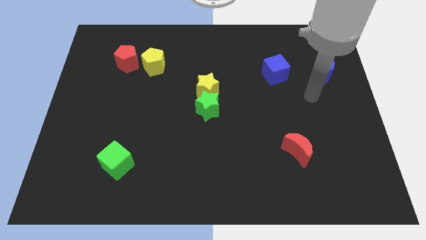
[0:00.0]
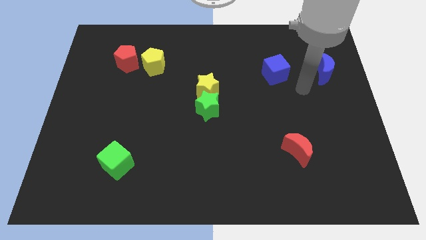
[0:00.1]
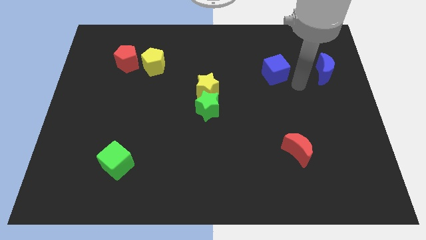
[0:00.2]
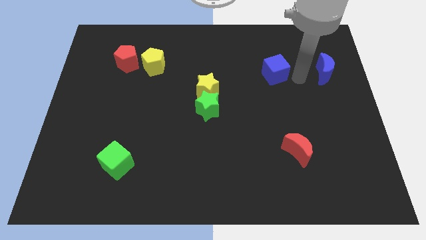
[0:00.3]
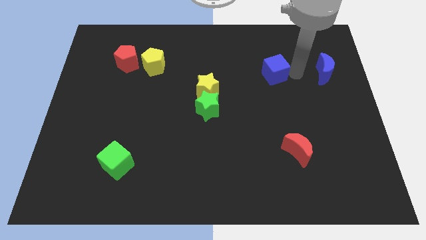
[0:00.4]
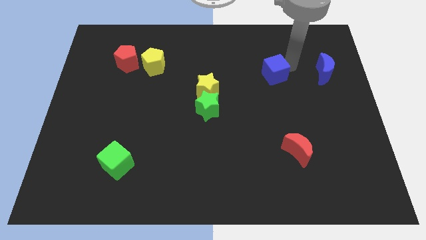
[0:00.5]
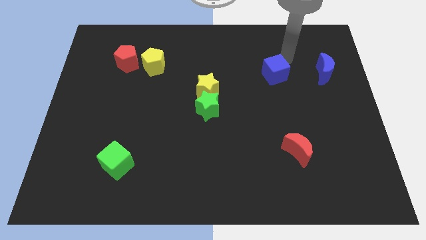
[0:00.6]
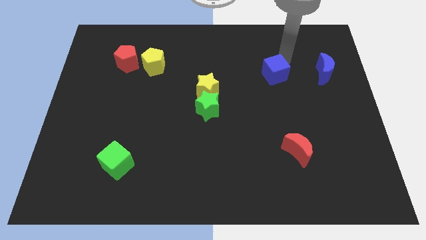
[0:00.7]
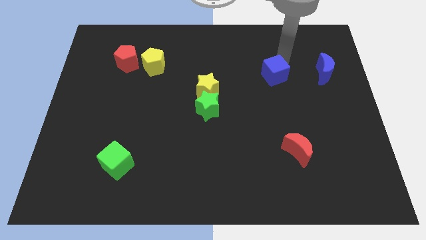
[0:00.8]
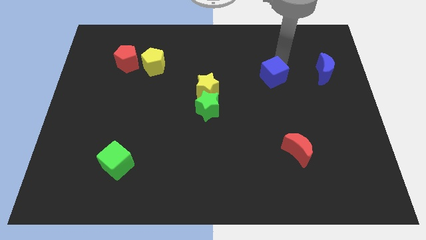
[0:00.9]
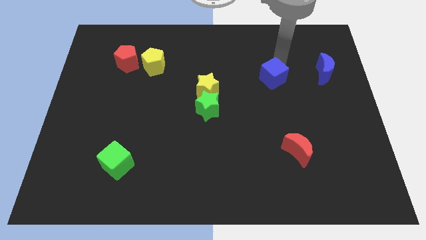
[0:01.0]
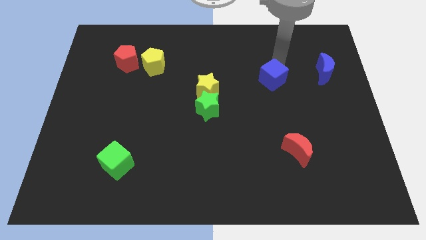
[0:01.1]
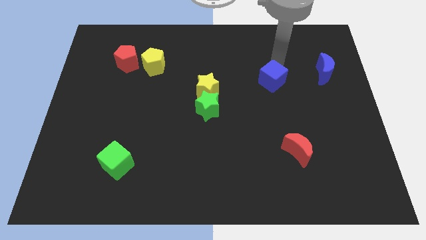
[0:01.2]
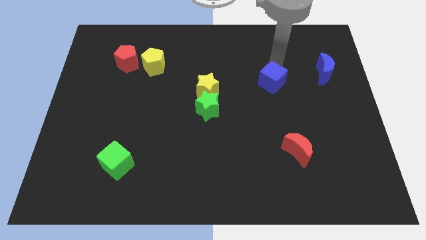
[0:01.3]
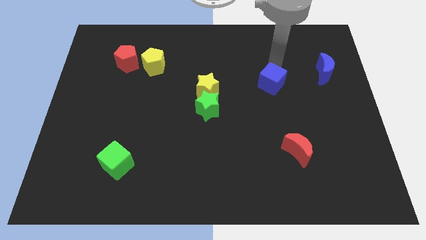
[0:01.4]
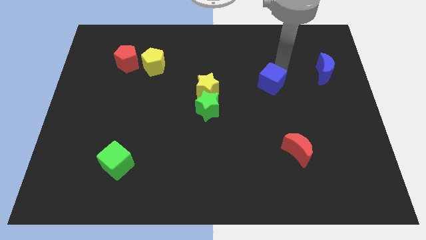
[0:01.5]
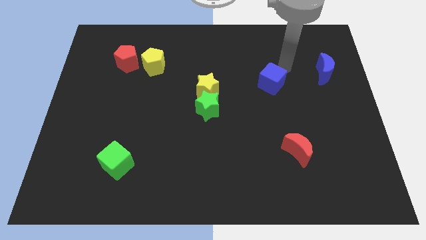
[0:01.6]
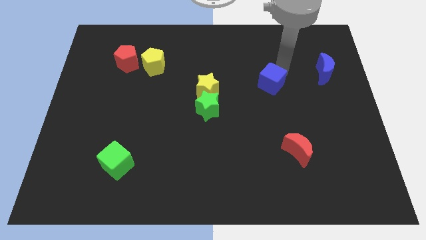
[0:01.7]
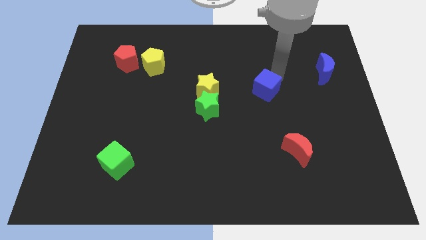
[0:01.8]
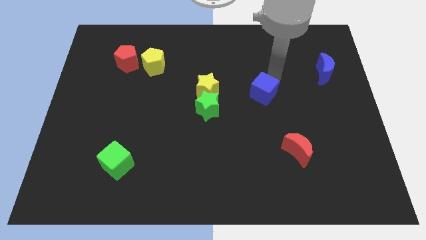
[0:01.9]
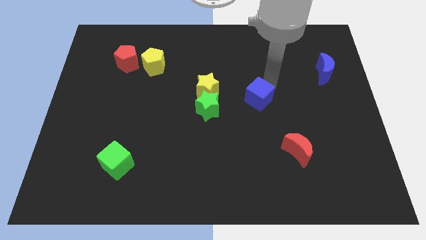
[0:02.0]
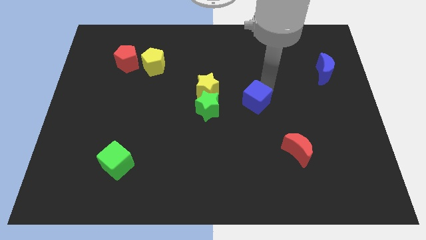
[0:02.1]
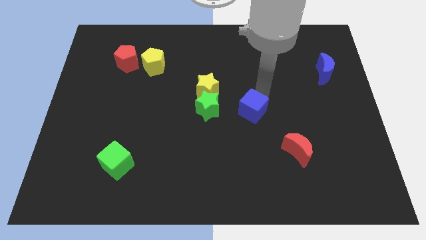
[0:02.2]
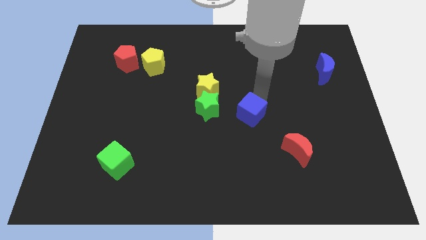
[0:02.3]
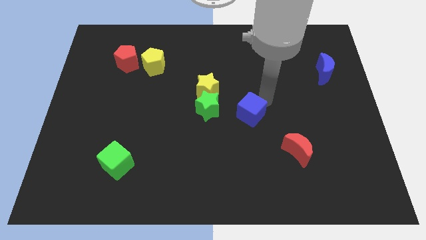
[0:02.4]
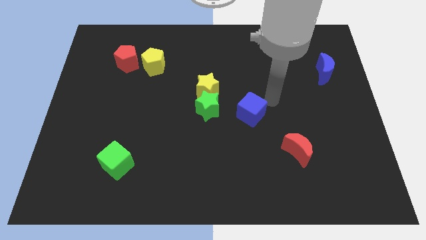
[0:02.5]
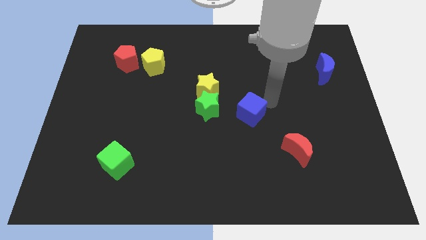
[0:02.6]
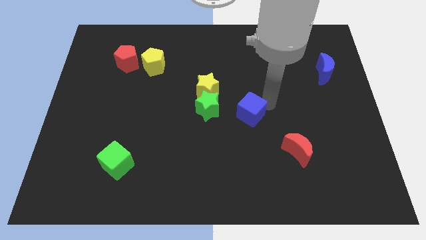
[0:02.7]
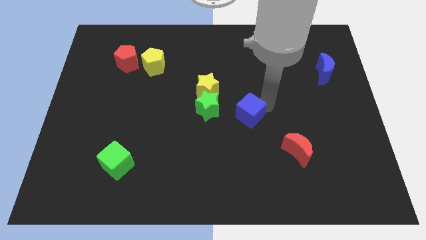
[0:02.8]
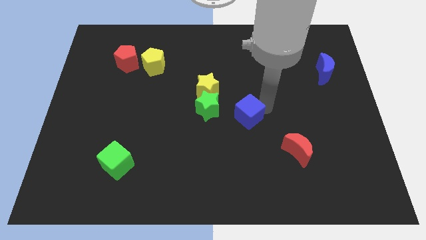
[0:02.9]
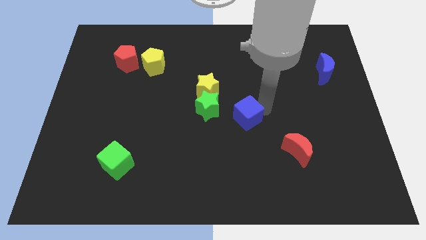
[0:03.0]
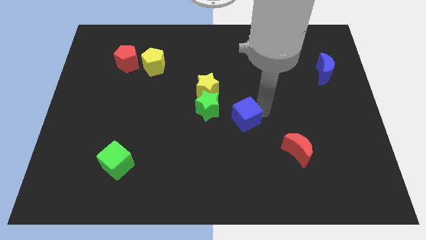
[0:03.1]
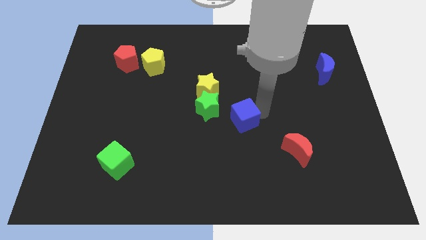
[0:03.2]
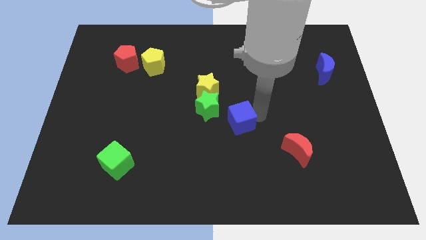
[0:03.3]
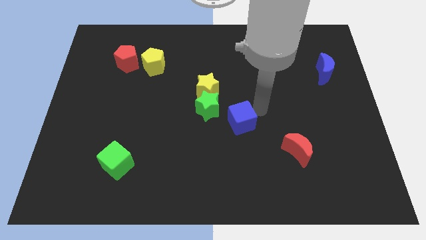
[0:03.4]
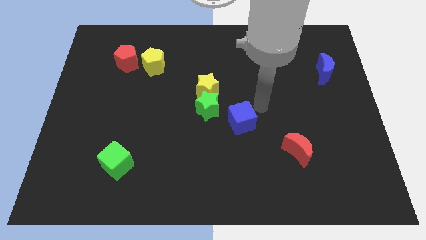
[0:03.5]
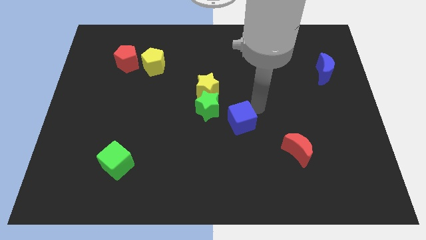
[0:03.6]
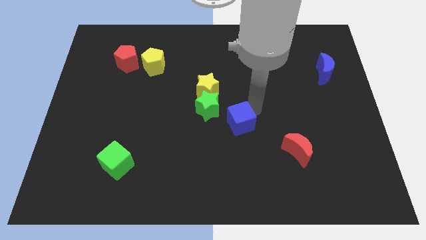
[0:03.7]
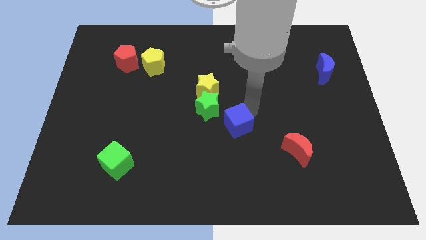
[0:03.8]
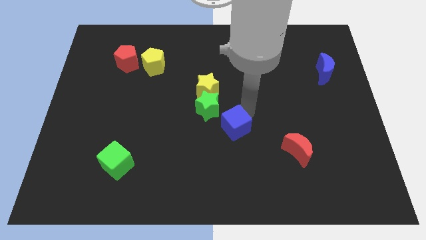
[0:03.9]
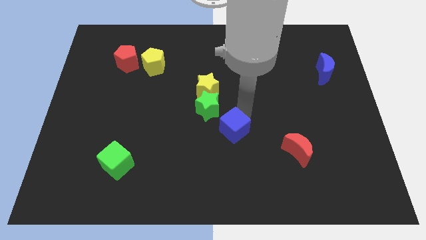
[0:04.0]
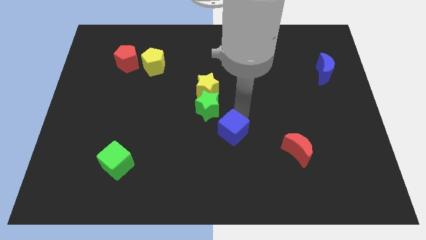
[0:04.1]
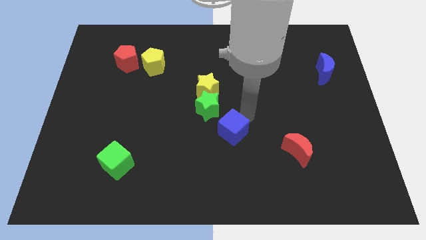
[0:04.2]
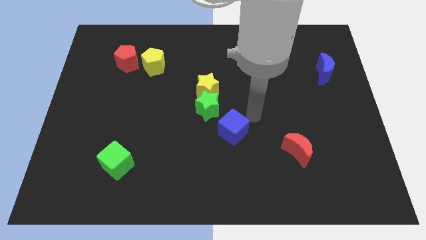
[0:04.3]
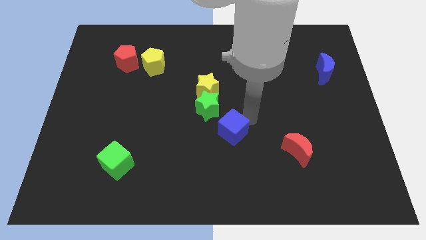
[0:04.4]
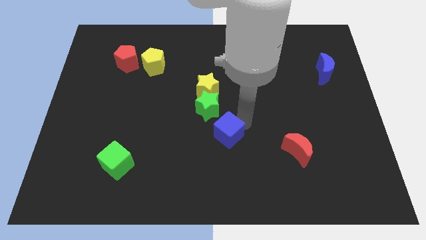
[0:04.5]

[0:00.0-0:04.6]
move the blue cube to the bottom side of the green star

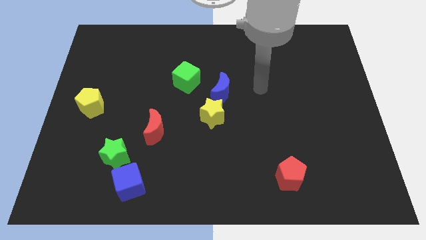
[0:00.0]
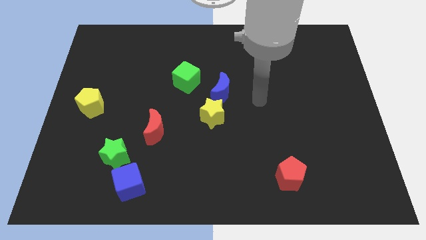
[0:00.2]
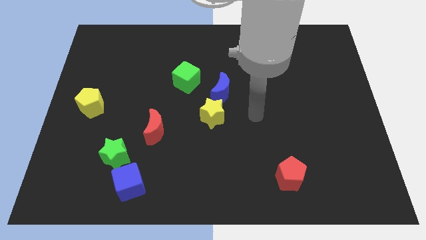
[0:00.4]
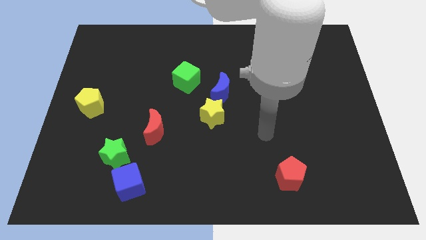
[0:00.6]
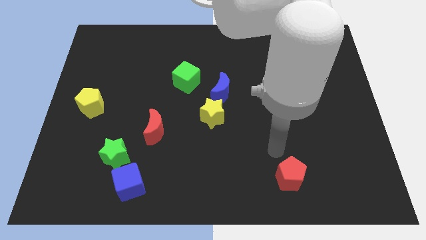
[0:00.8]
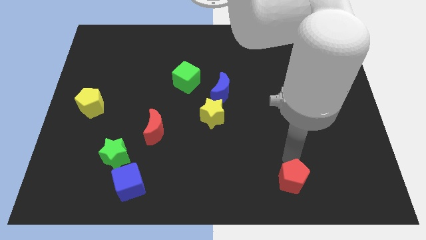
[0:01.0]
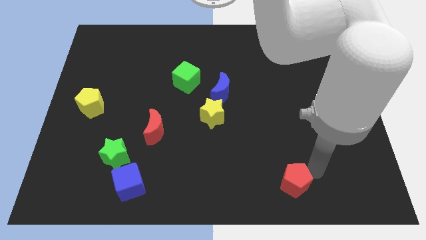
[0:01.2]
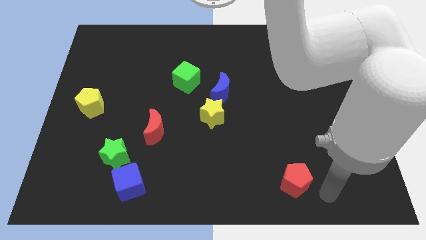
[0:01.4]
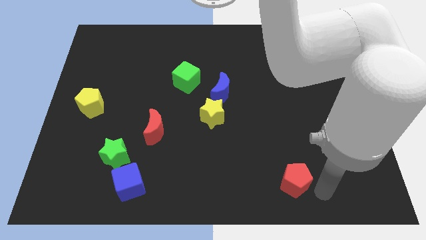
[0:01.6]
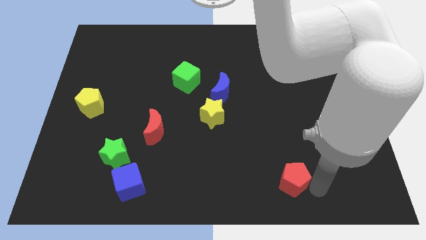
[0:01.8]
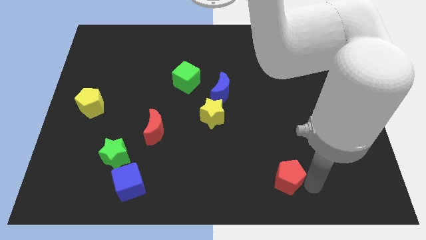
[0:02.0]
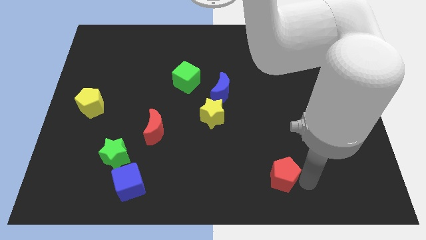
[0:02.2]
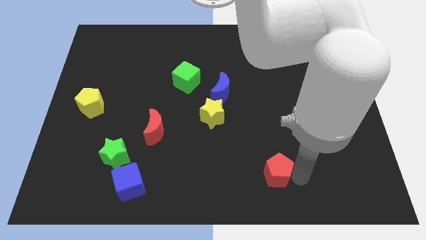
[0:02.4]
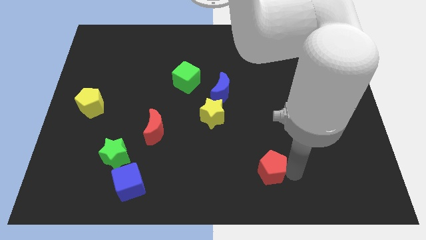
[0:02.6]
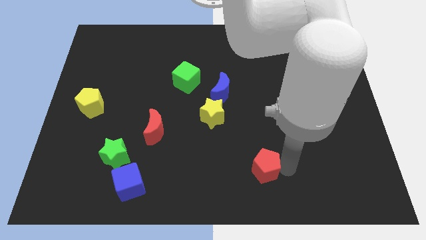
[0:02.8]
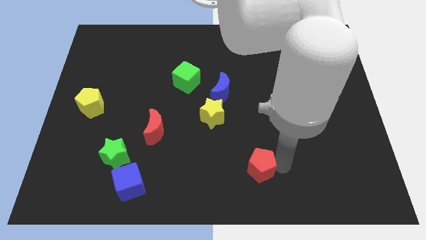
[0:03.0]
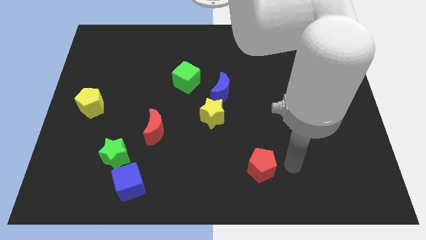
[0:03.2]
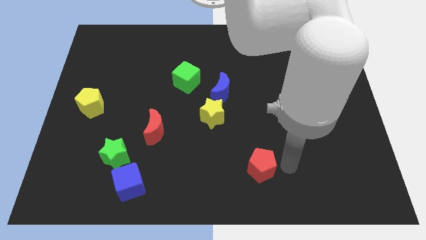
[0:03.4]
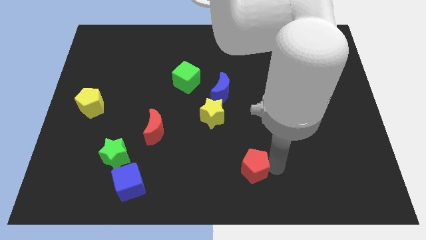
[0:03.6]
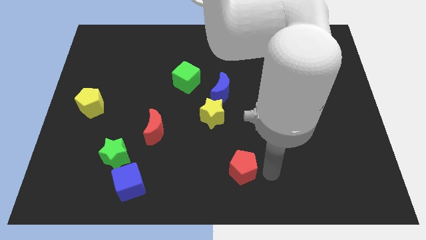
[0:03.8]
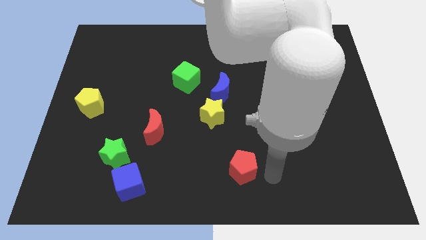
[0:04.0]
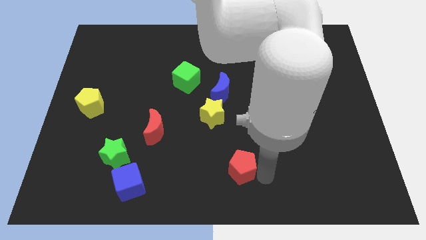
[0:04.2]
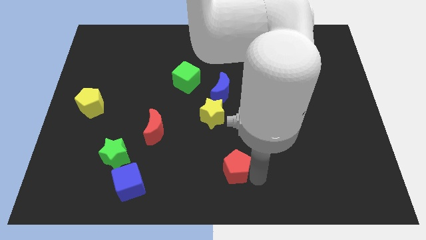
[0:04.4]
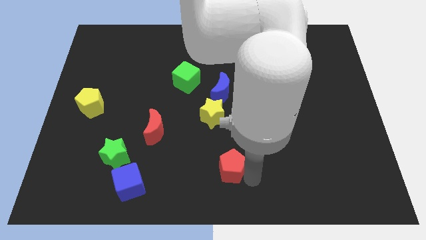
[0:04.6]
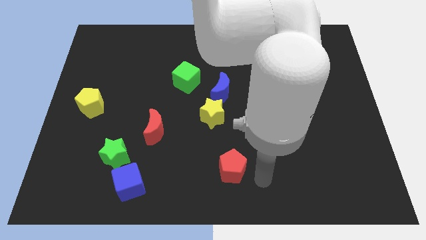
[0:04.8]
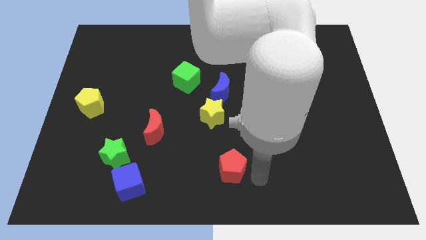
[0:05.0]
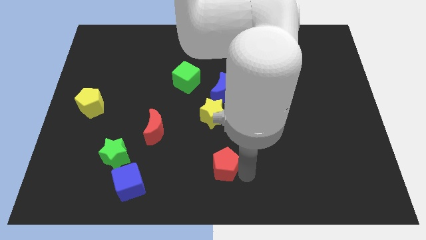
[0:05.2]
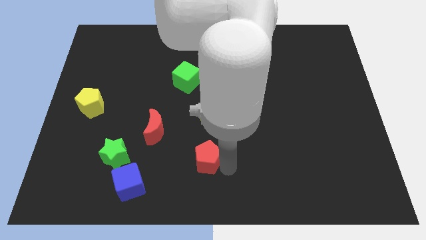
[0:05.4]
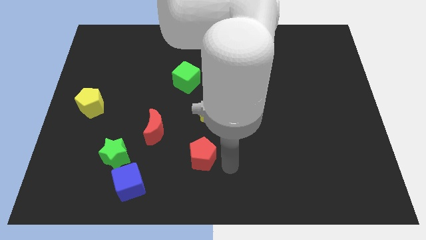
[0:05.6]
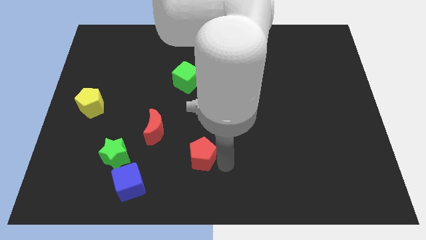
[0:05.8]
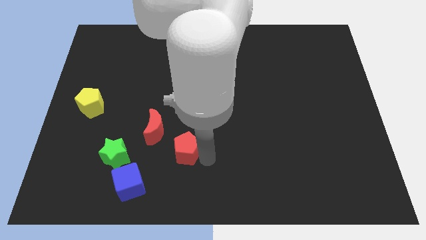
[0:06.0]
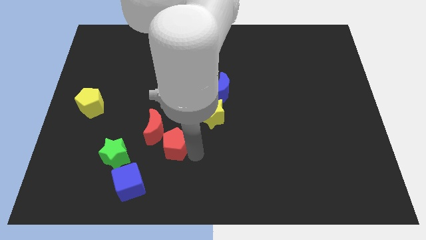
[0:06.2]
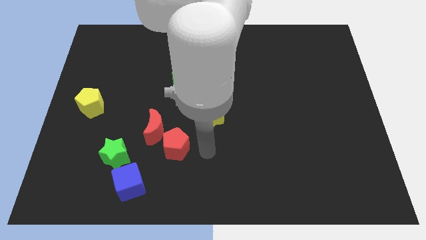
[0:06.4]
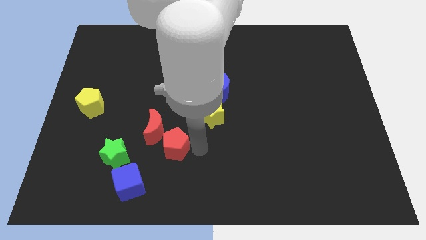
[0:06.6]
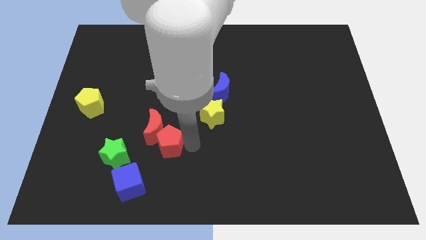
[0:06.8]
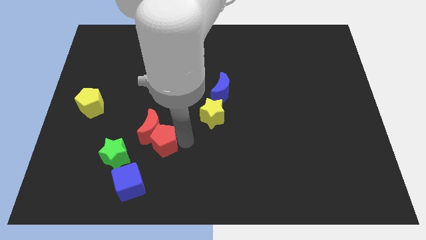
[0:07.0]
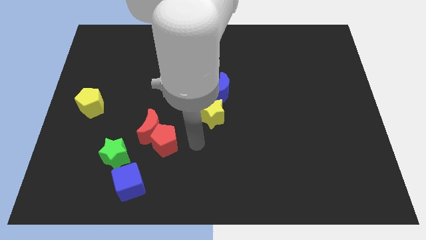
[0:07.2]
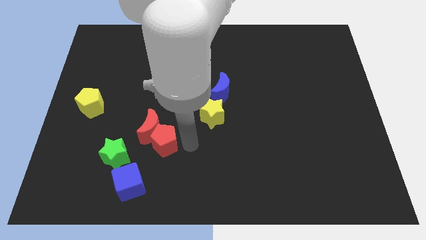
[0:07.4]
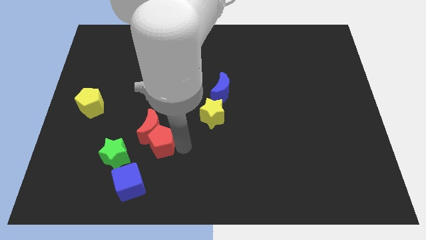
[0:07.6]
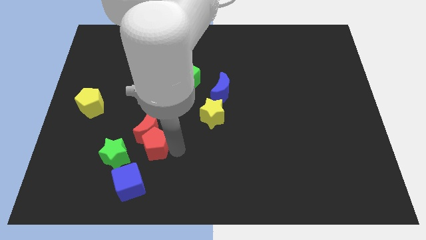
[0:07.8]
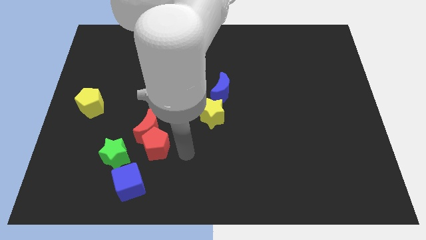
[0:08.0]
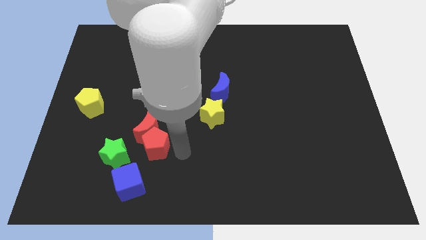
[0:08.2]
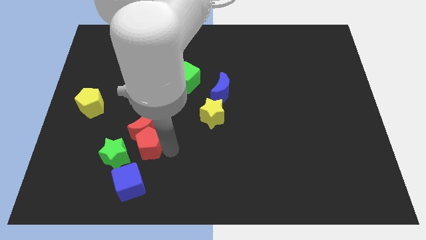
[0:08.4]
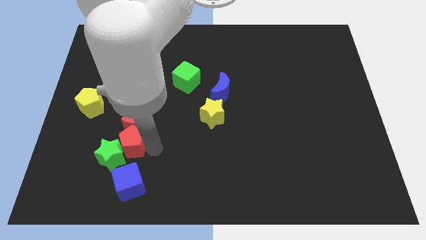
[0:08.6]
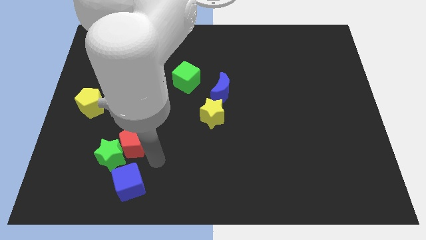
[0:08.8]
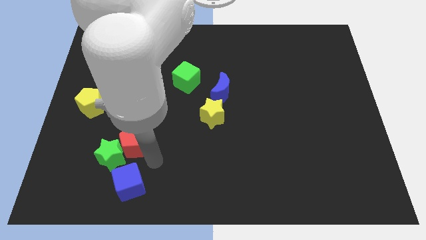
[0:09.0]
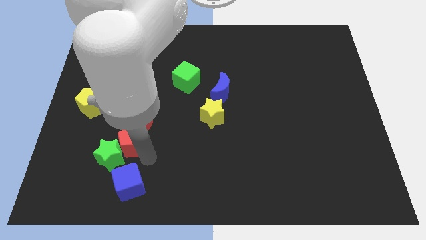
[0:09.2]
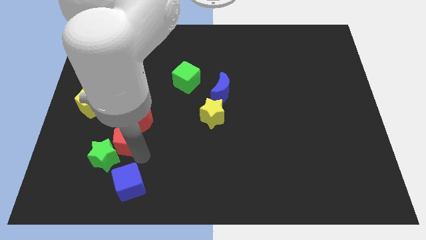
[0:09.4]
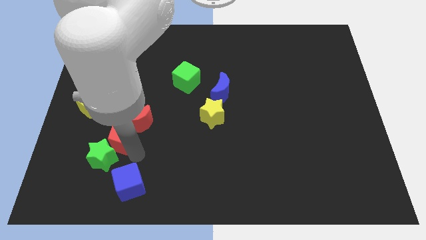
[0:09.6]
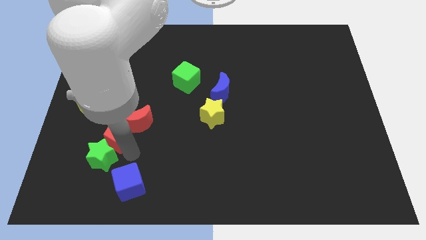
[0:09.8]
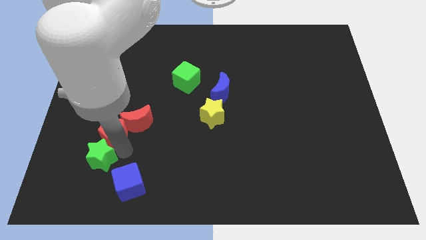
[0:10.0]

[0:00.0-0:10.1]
put the red pentagon diagonally up and to the left of the green star
